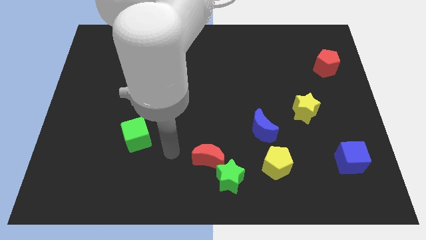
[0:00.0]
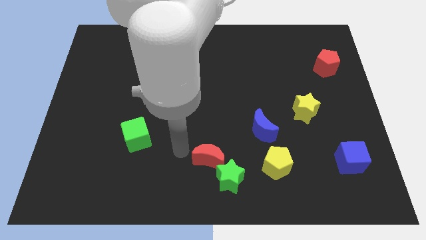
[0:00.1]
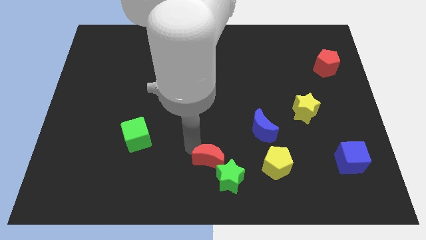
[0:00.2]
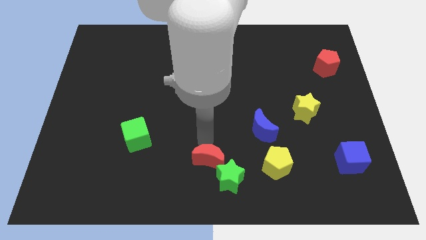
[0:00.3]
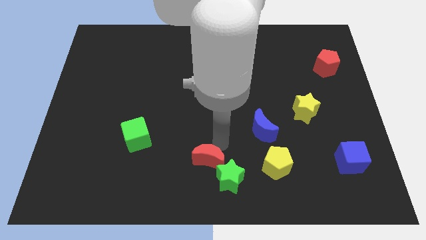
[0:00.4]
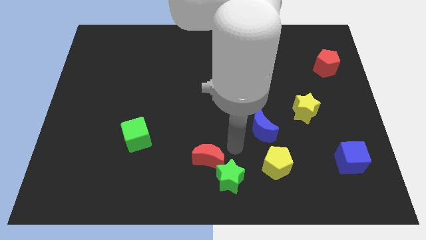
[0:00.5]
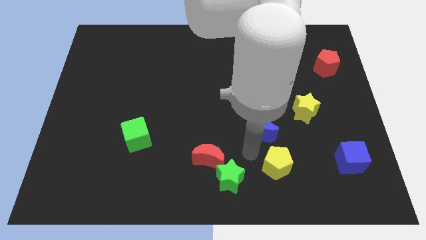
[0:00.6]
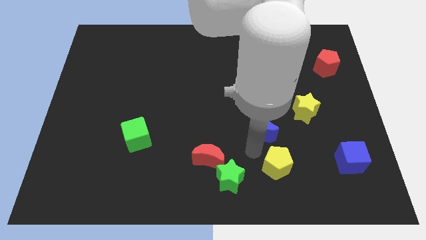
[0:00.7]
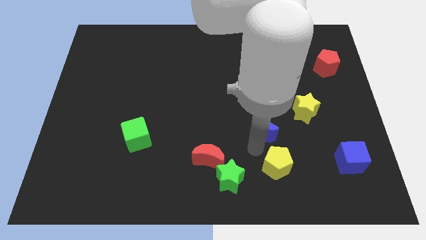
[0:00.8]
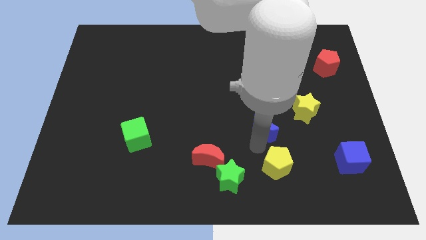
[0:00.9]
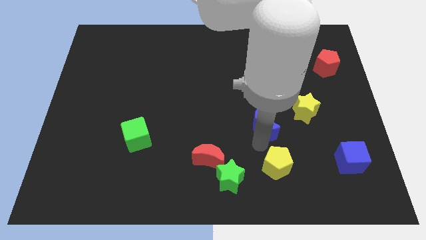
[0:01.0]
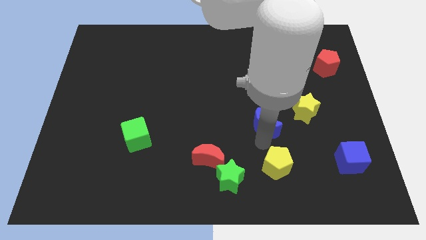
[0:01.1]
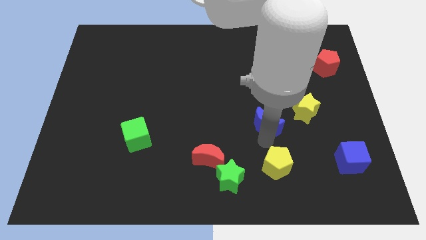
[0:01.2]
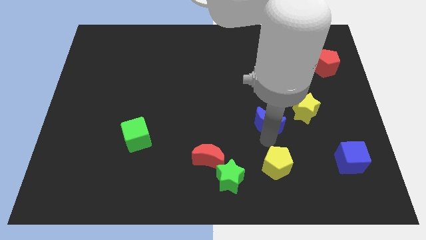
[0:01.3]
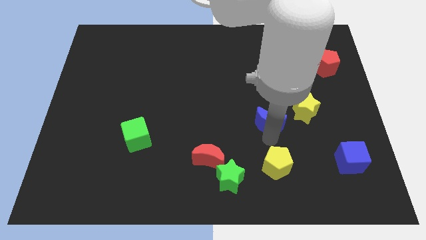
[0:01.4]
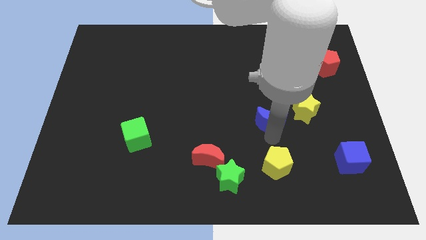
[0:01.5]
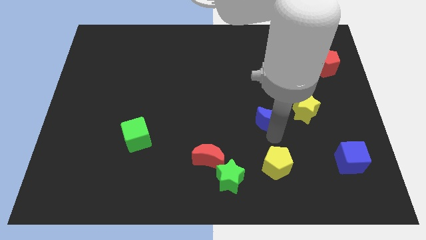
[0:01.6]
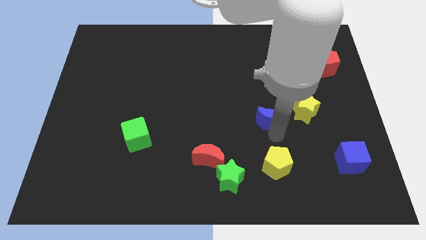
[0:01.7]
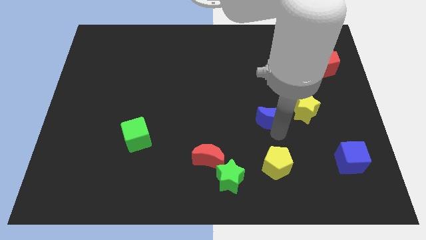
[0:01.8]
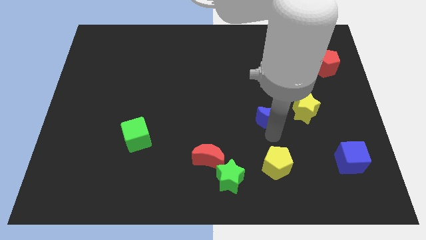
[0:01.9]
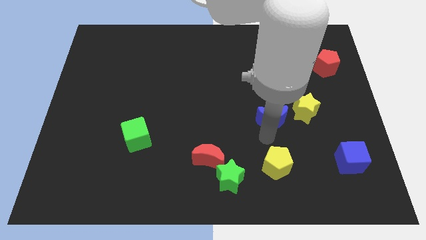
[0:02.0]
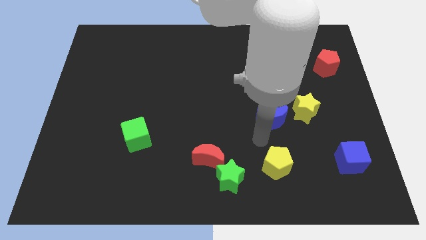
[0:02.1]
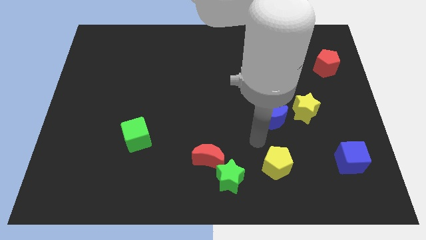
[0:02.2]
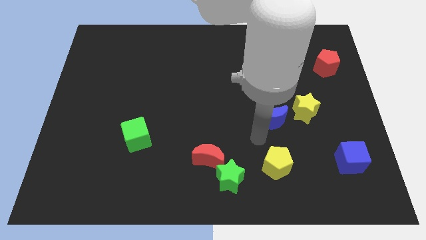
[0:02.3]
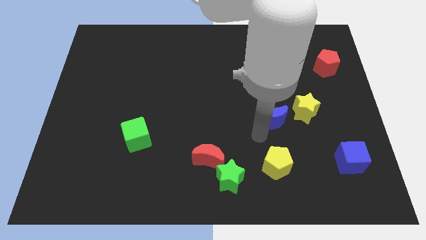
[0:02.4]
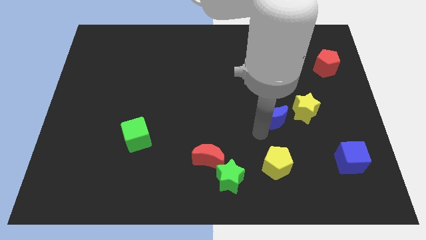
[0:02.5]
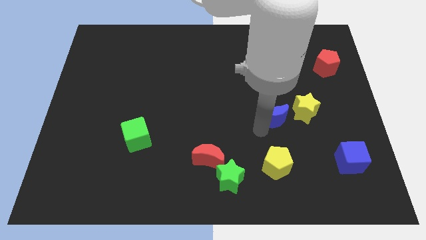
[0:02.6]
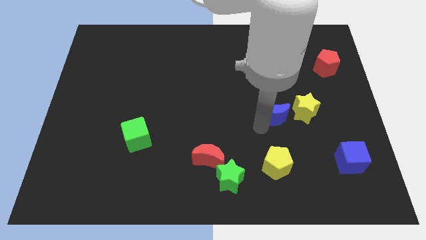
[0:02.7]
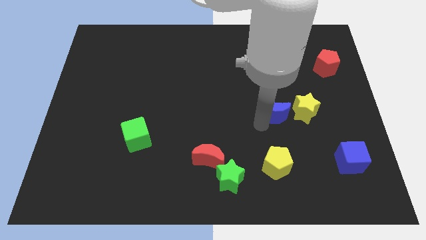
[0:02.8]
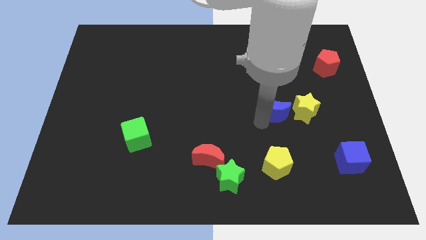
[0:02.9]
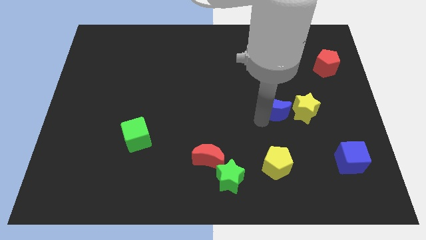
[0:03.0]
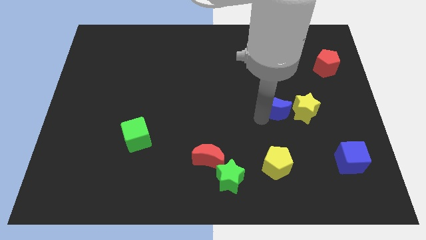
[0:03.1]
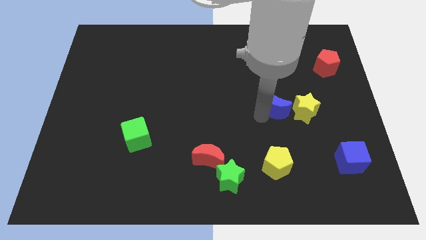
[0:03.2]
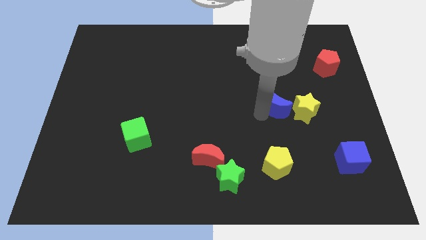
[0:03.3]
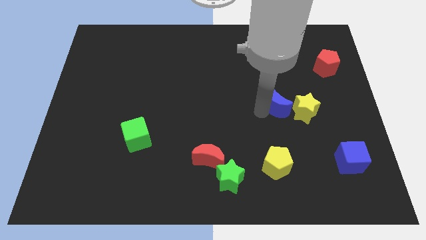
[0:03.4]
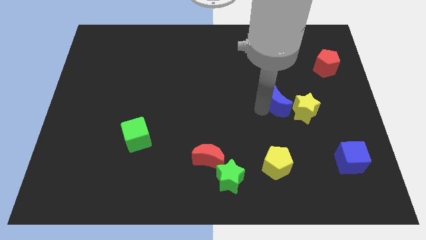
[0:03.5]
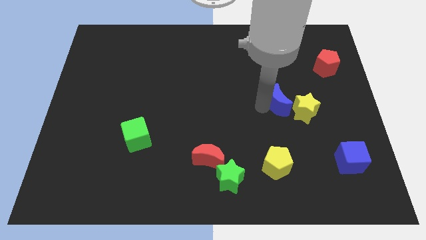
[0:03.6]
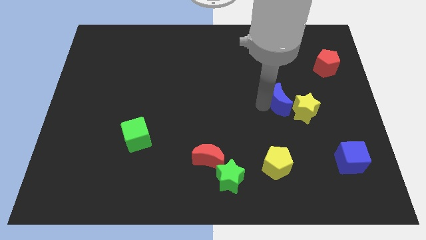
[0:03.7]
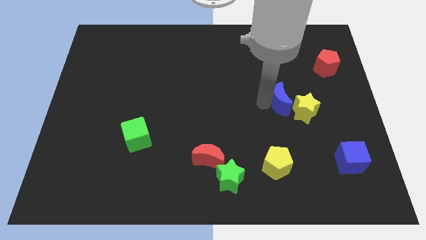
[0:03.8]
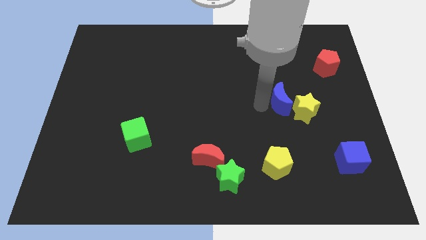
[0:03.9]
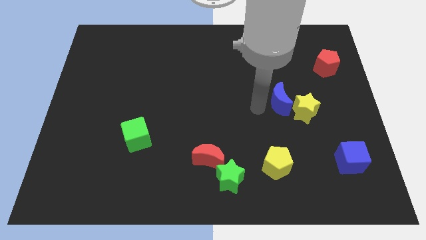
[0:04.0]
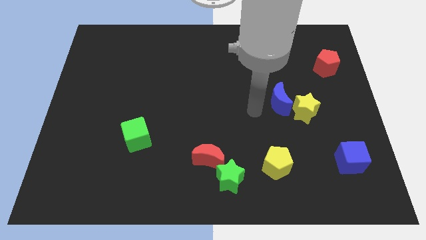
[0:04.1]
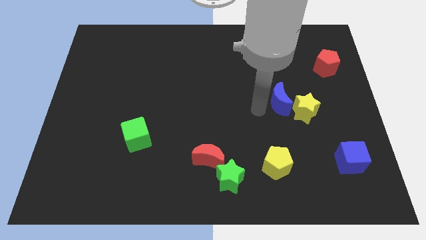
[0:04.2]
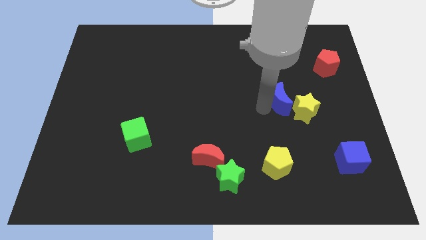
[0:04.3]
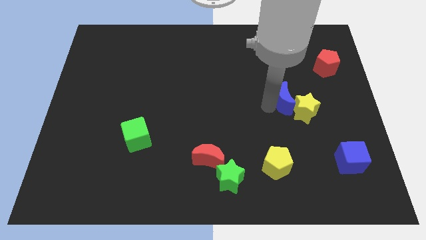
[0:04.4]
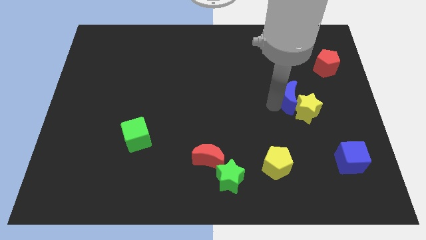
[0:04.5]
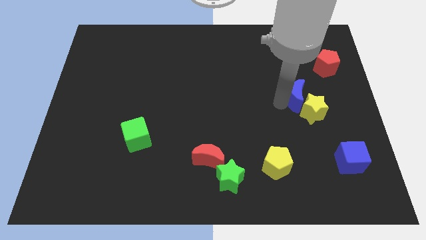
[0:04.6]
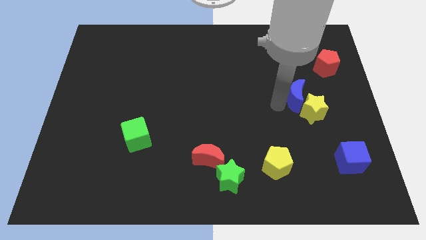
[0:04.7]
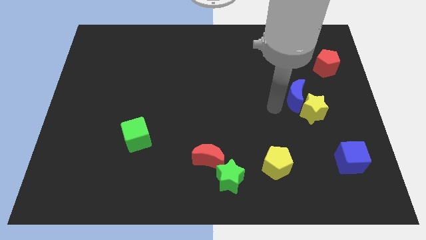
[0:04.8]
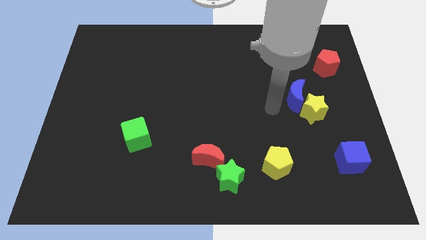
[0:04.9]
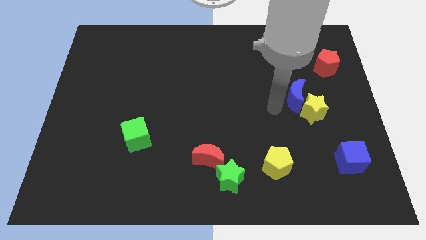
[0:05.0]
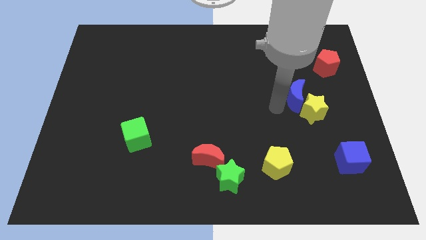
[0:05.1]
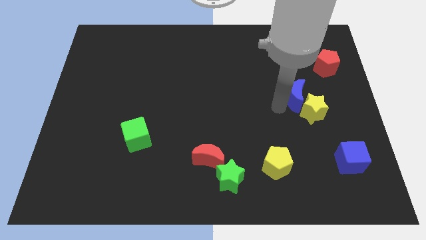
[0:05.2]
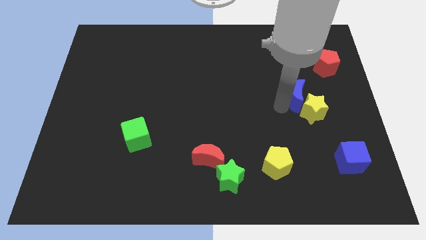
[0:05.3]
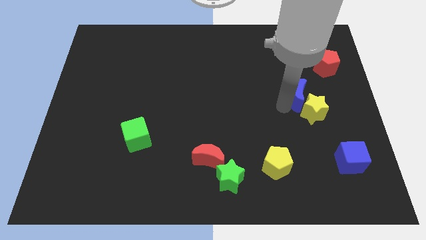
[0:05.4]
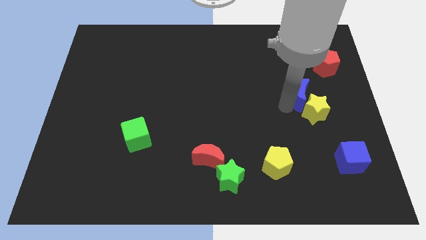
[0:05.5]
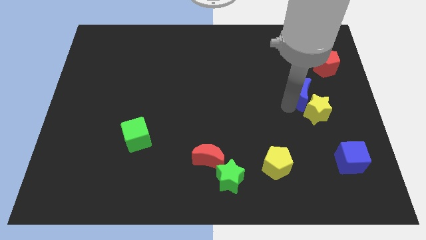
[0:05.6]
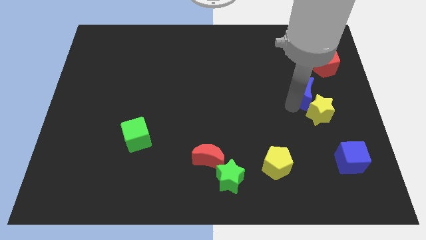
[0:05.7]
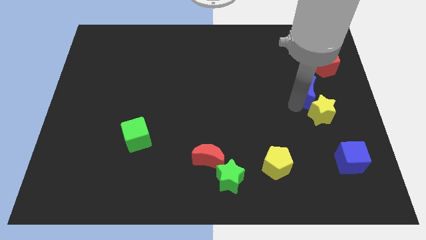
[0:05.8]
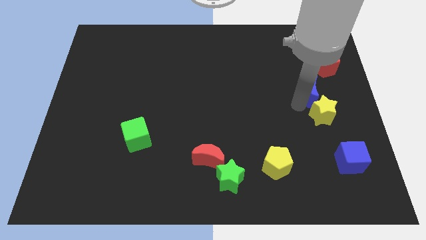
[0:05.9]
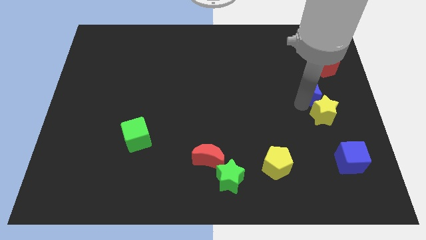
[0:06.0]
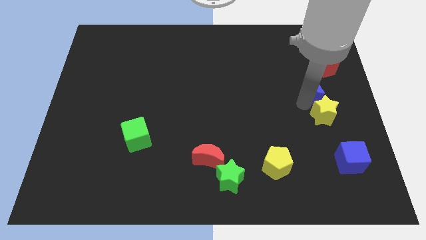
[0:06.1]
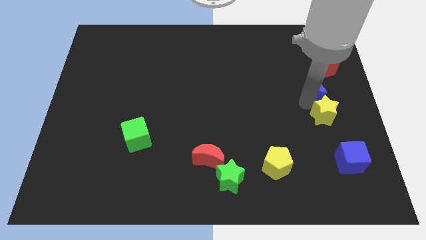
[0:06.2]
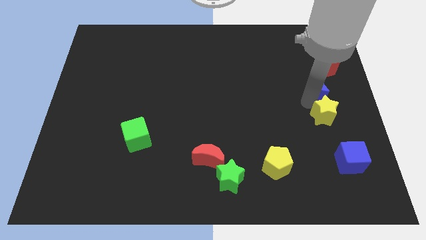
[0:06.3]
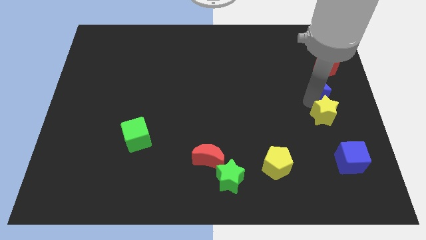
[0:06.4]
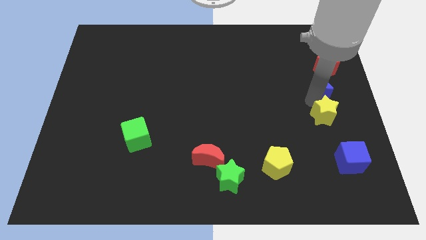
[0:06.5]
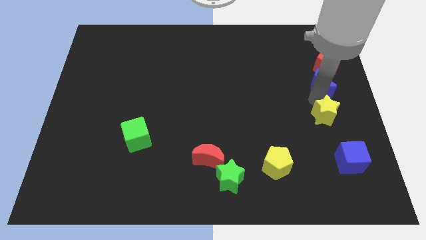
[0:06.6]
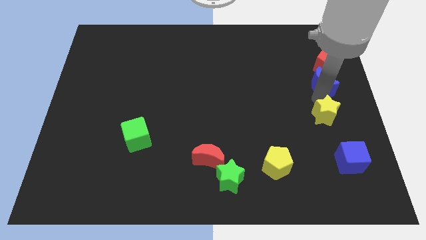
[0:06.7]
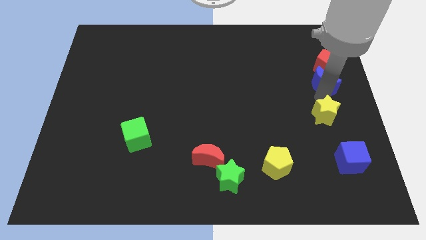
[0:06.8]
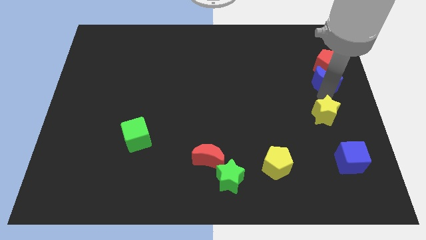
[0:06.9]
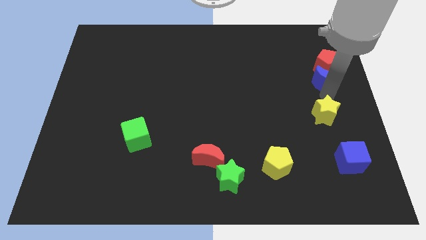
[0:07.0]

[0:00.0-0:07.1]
push the blue moon towards the red pentagon
